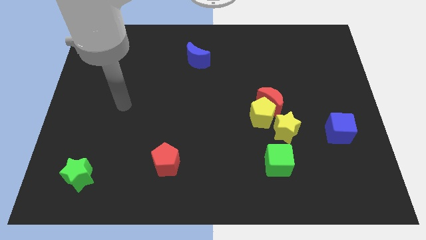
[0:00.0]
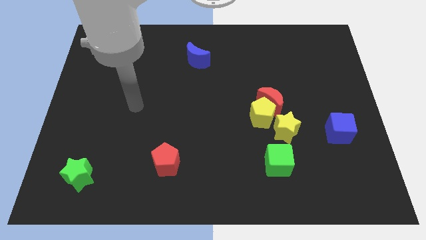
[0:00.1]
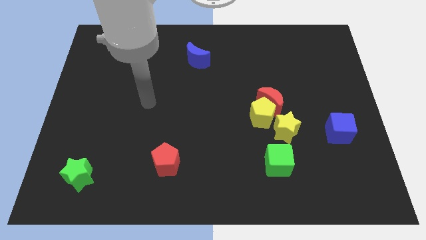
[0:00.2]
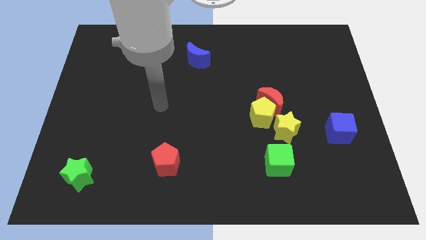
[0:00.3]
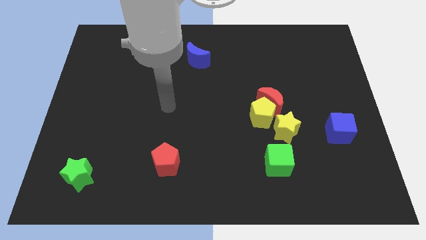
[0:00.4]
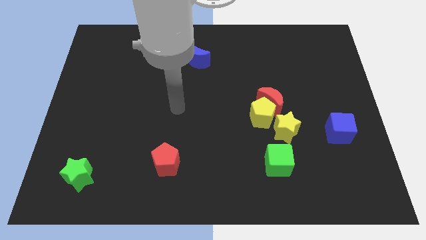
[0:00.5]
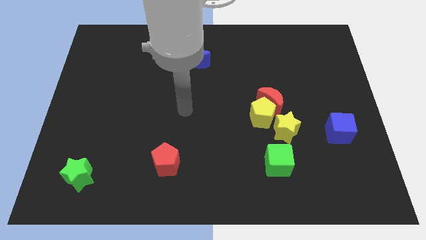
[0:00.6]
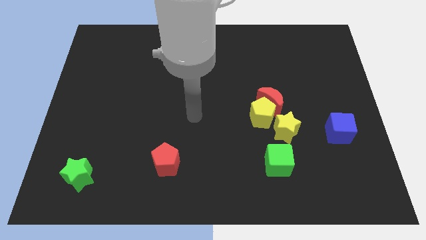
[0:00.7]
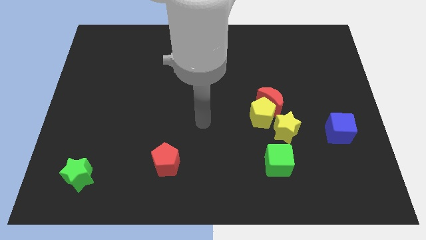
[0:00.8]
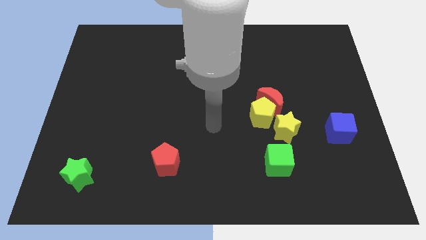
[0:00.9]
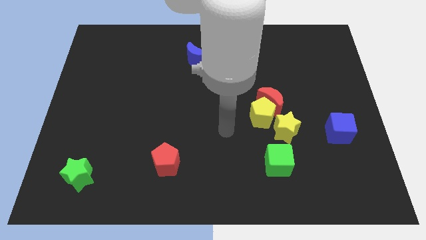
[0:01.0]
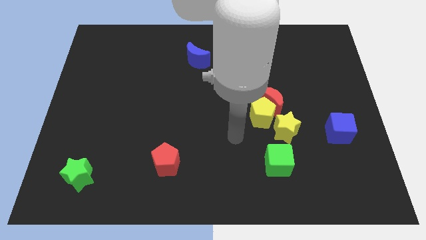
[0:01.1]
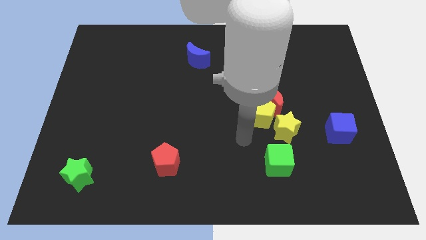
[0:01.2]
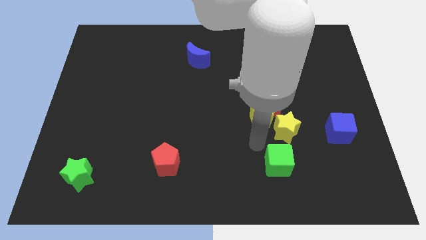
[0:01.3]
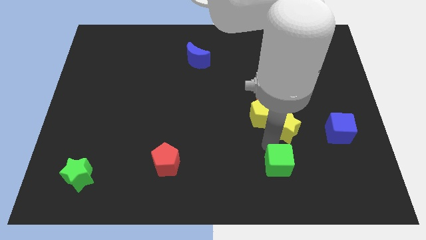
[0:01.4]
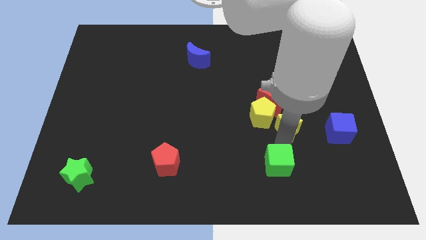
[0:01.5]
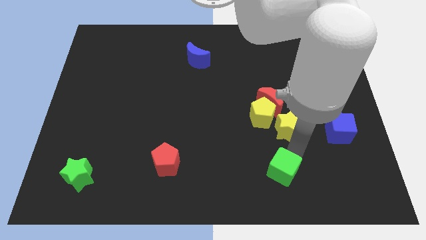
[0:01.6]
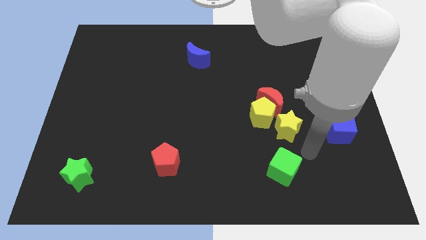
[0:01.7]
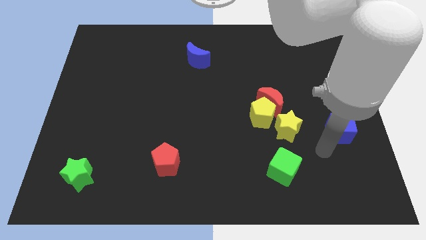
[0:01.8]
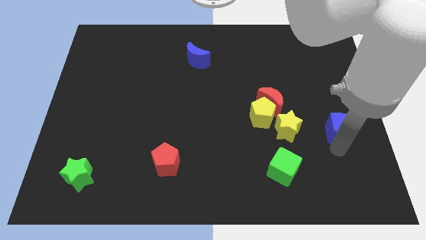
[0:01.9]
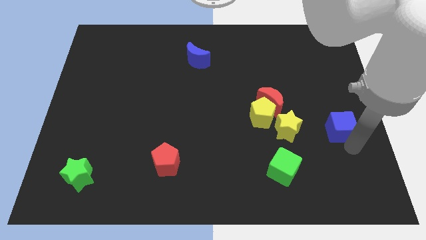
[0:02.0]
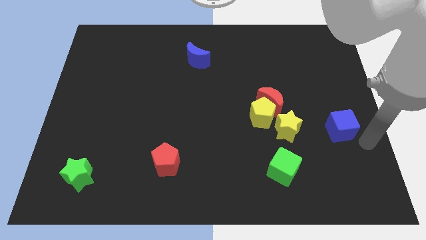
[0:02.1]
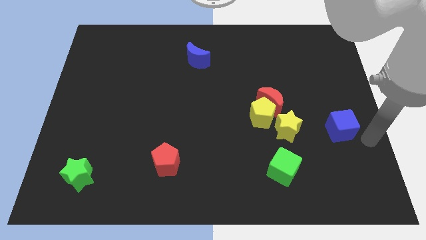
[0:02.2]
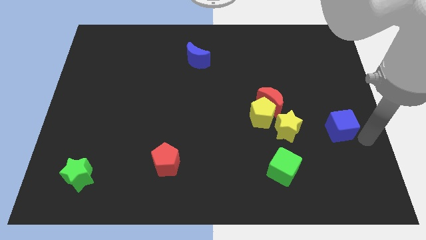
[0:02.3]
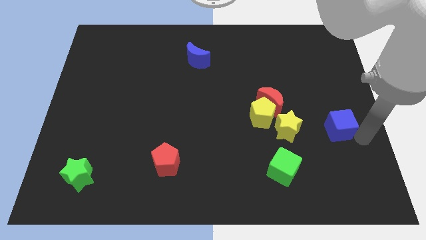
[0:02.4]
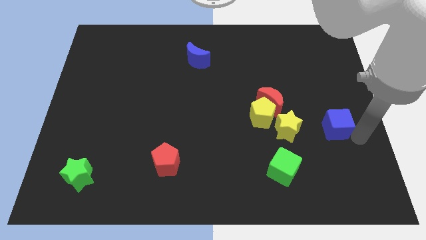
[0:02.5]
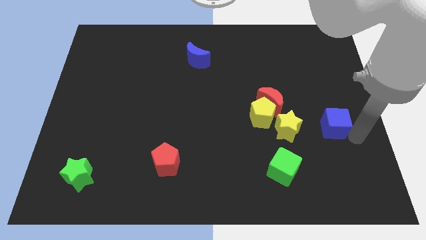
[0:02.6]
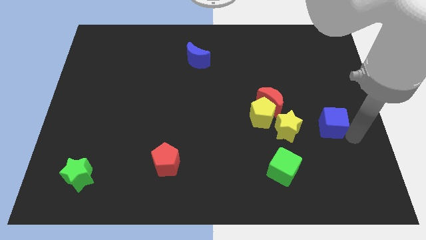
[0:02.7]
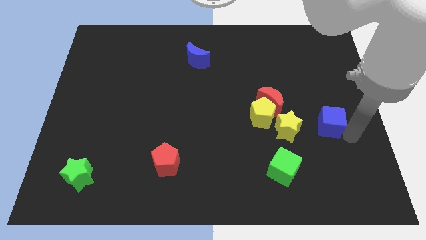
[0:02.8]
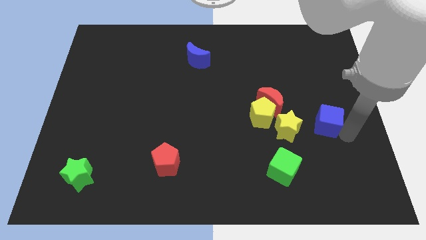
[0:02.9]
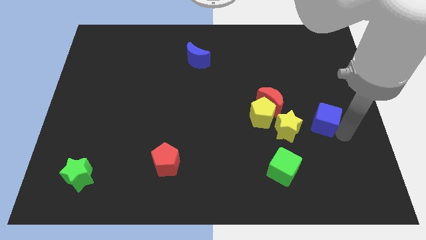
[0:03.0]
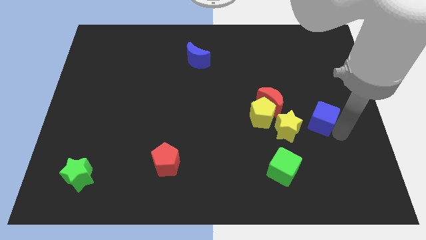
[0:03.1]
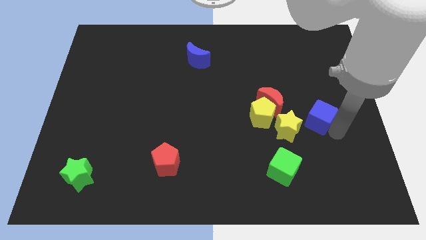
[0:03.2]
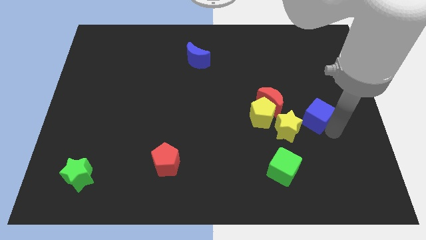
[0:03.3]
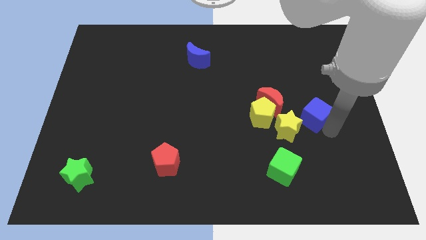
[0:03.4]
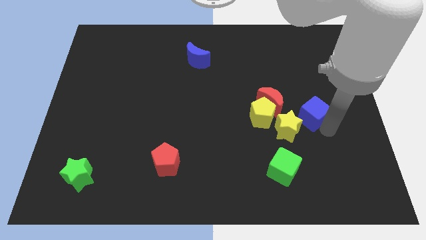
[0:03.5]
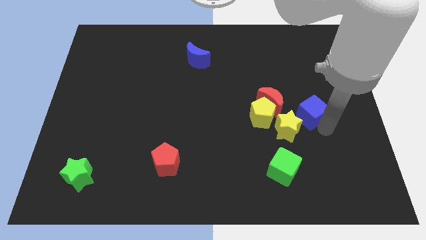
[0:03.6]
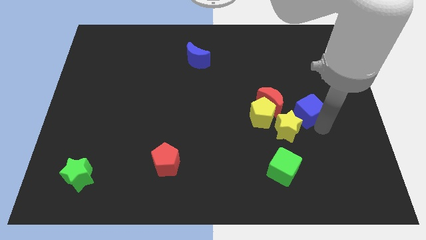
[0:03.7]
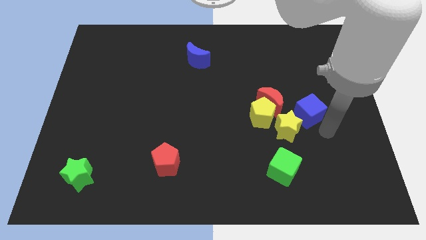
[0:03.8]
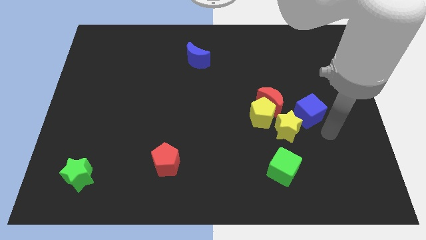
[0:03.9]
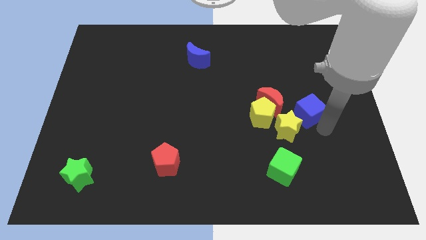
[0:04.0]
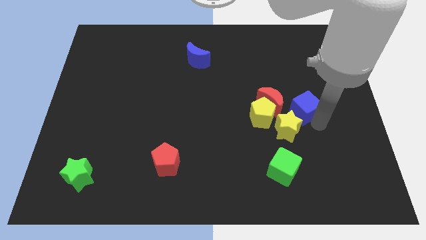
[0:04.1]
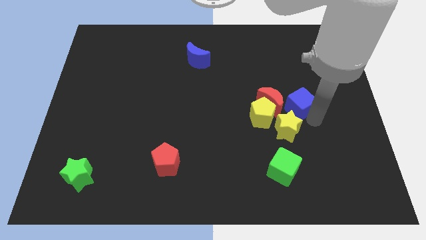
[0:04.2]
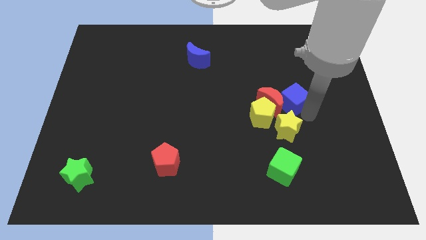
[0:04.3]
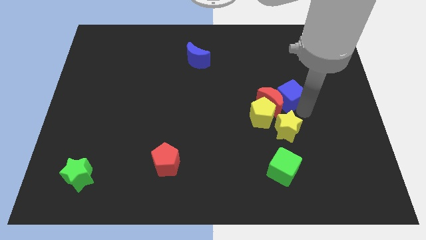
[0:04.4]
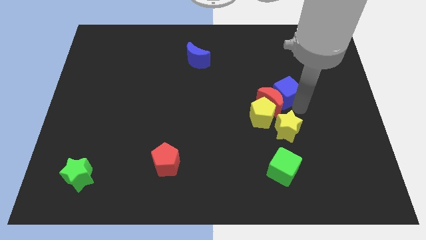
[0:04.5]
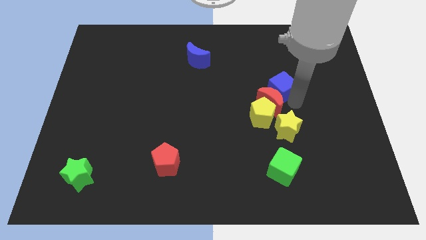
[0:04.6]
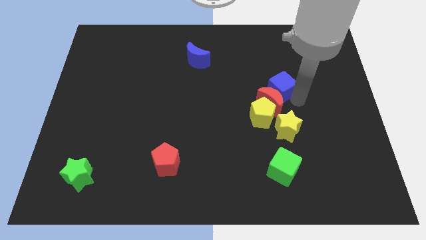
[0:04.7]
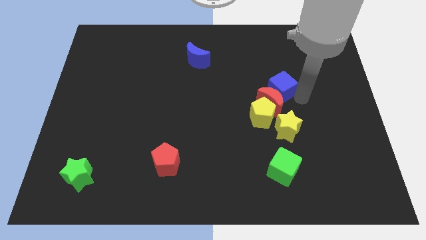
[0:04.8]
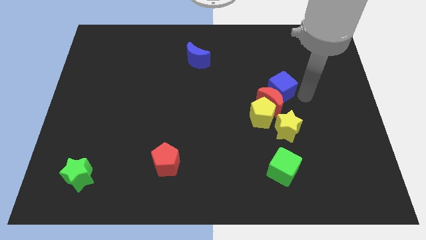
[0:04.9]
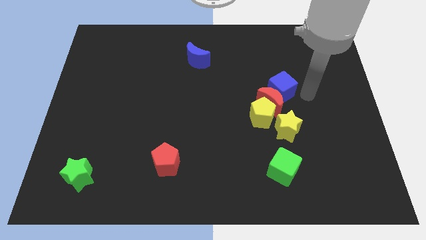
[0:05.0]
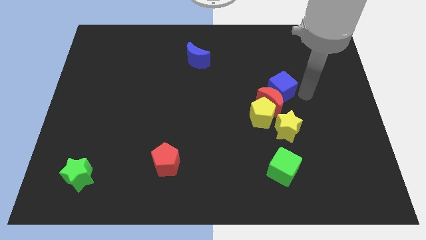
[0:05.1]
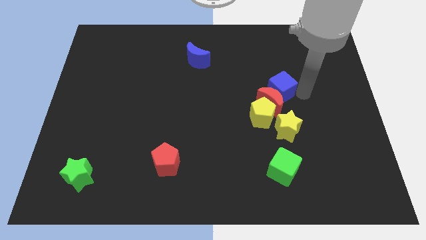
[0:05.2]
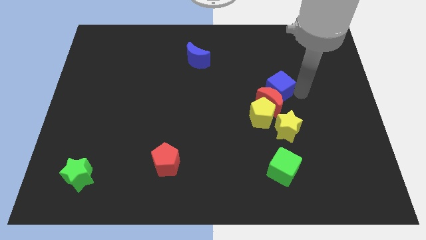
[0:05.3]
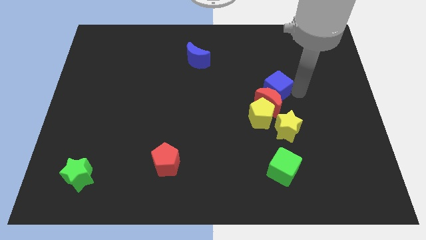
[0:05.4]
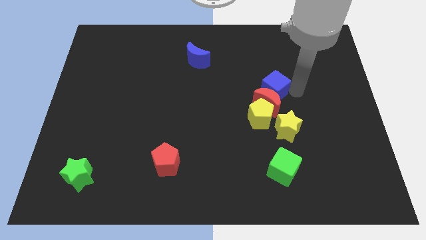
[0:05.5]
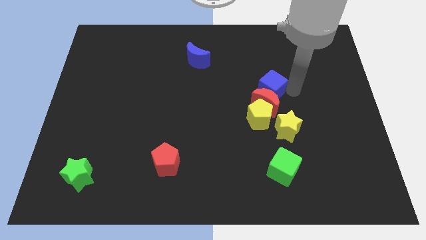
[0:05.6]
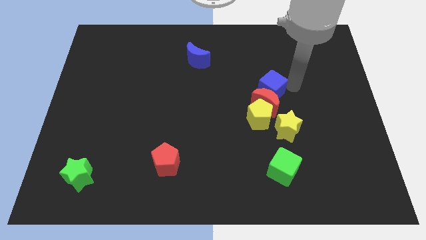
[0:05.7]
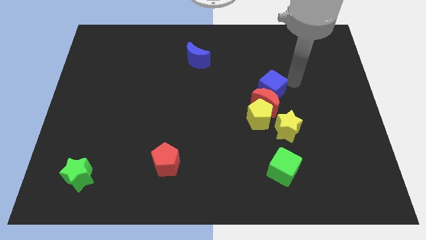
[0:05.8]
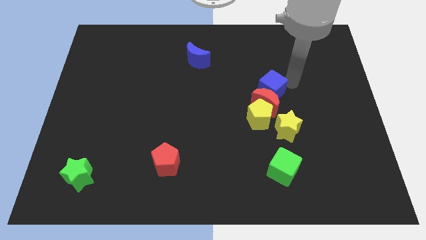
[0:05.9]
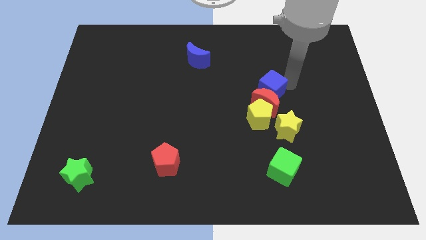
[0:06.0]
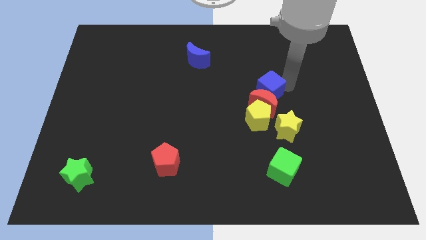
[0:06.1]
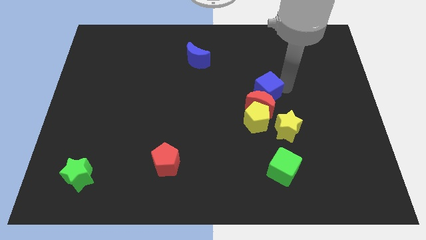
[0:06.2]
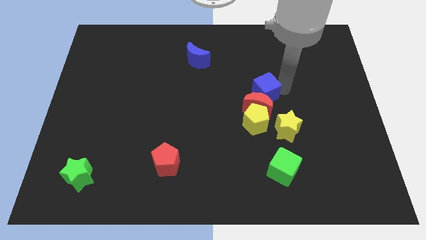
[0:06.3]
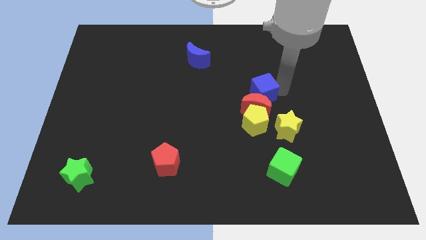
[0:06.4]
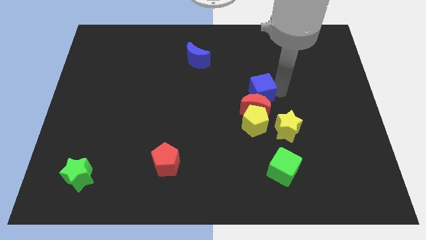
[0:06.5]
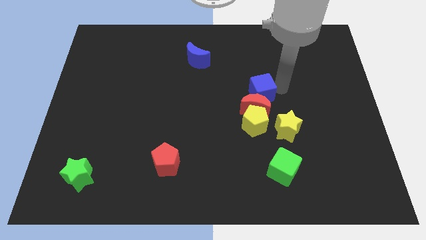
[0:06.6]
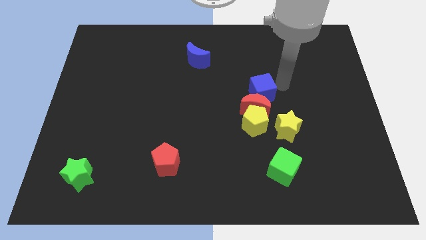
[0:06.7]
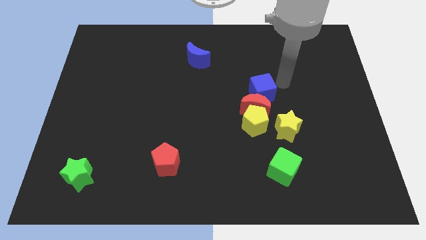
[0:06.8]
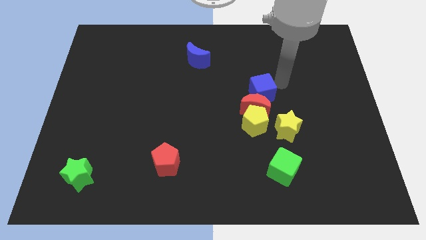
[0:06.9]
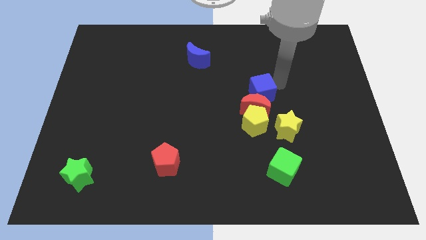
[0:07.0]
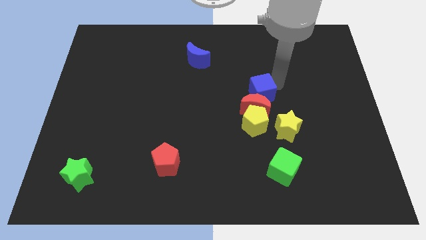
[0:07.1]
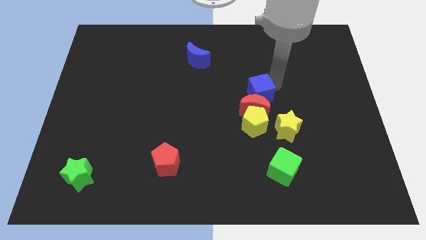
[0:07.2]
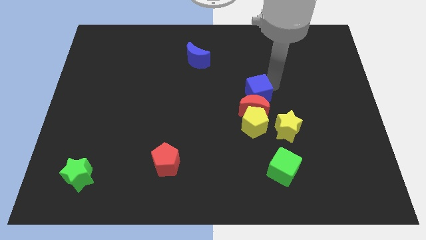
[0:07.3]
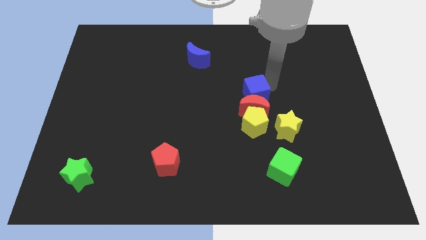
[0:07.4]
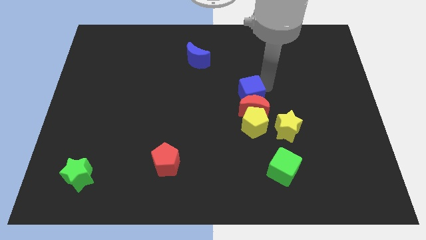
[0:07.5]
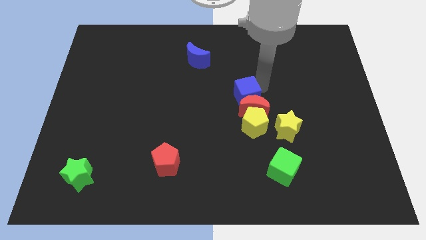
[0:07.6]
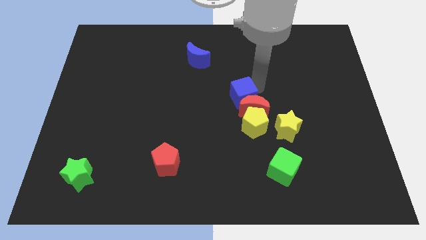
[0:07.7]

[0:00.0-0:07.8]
slide the blue cube to the left side of the red moon
